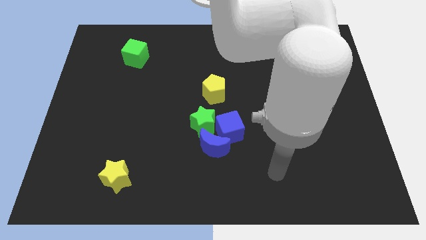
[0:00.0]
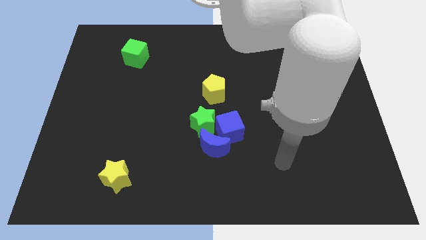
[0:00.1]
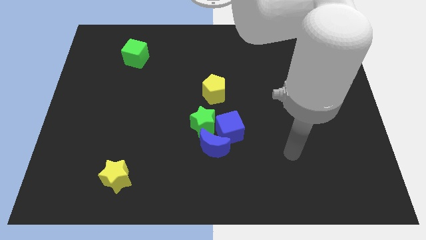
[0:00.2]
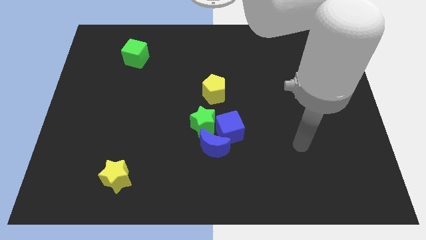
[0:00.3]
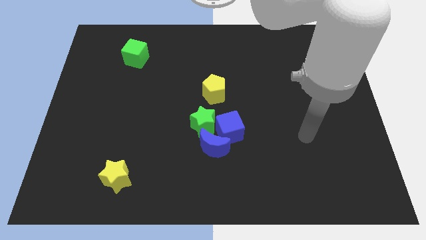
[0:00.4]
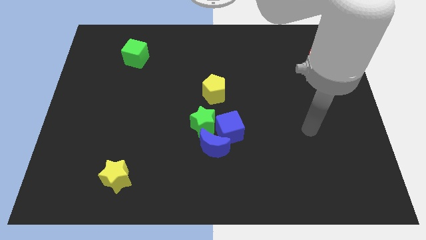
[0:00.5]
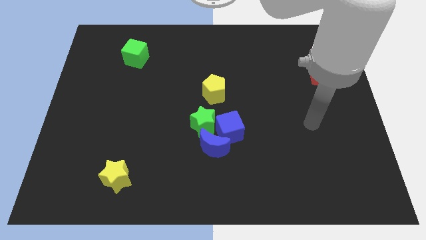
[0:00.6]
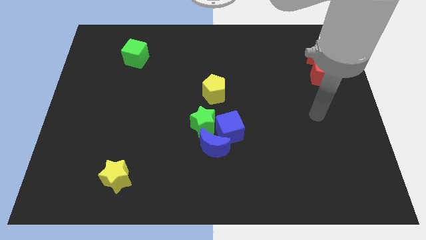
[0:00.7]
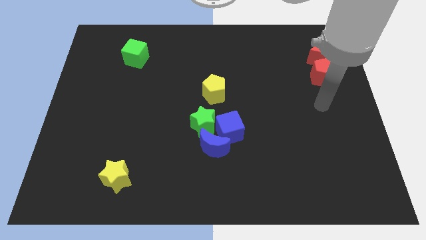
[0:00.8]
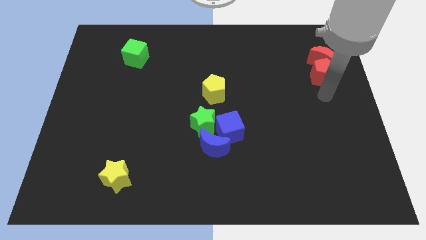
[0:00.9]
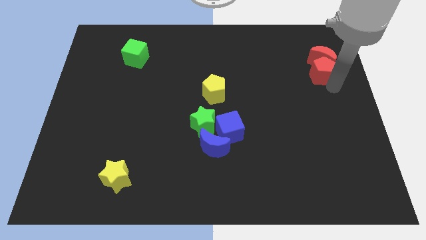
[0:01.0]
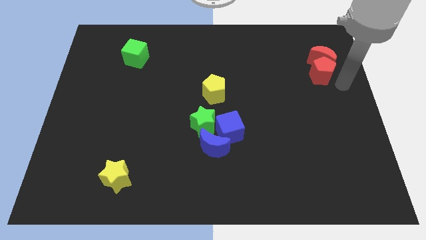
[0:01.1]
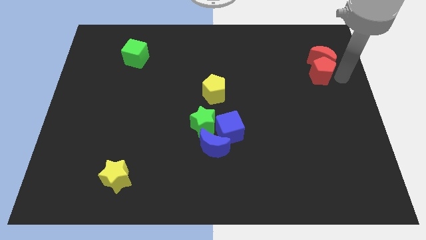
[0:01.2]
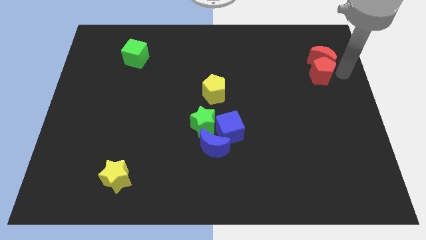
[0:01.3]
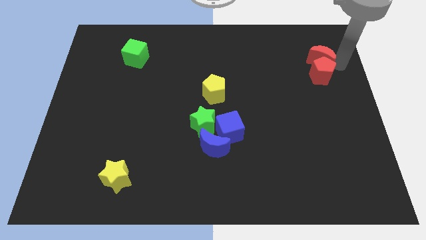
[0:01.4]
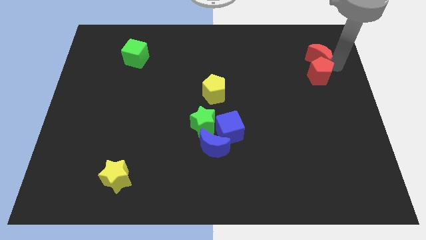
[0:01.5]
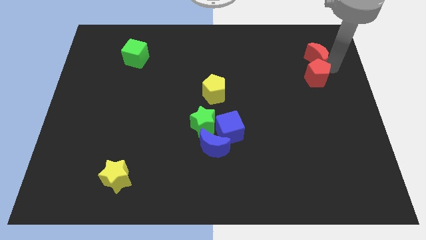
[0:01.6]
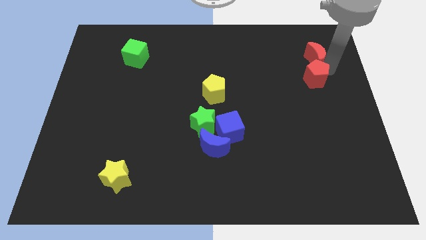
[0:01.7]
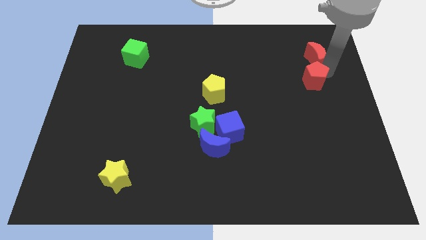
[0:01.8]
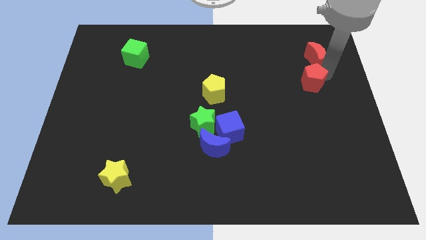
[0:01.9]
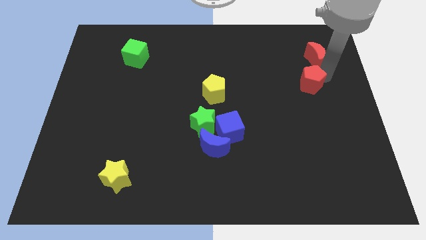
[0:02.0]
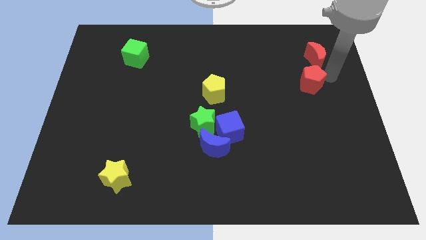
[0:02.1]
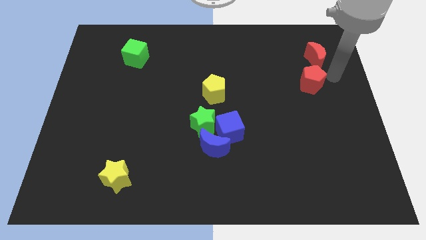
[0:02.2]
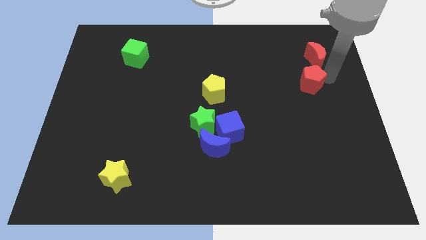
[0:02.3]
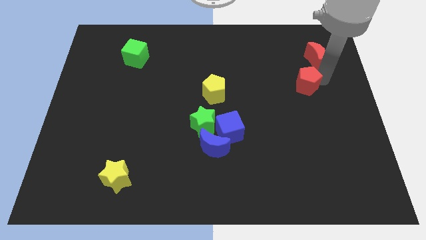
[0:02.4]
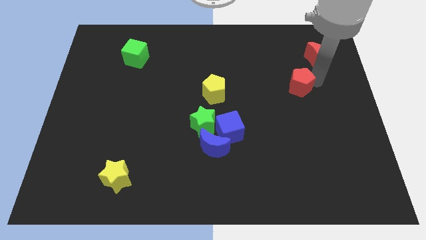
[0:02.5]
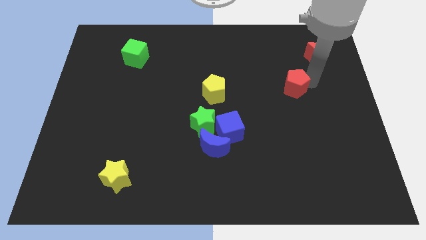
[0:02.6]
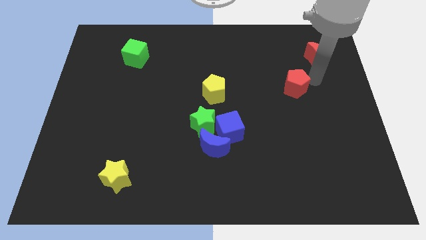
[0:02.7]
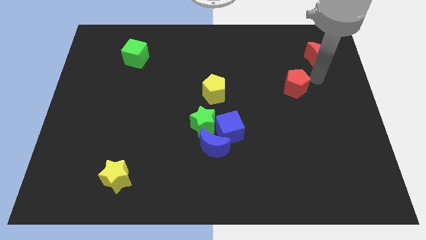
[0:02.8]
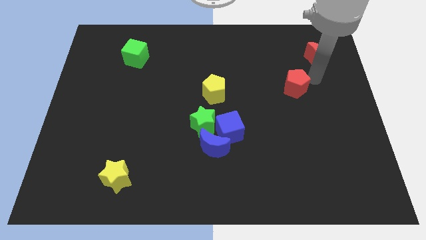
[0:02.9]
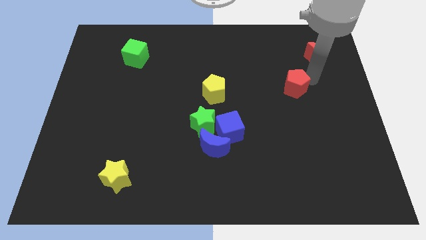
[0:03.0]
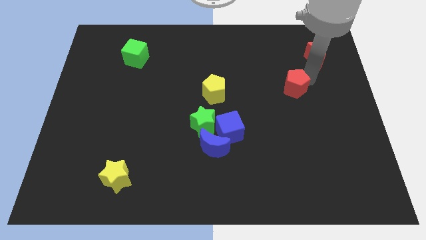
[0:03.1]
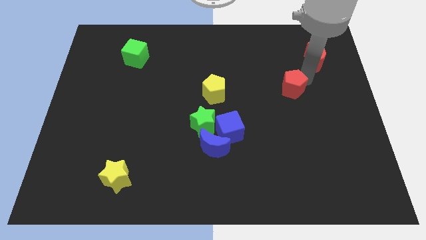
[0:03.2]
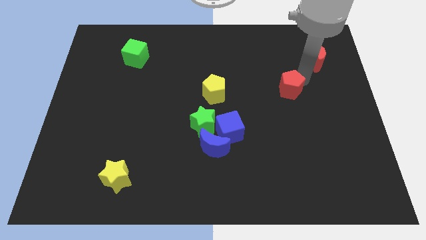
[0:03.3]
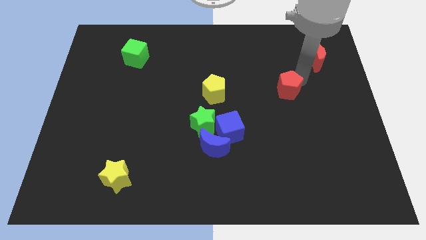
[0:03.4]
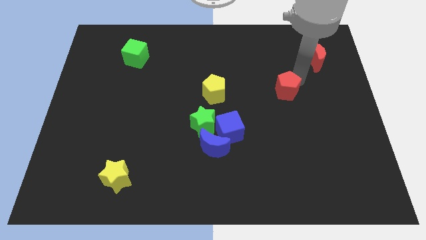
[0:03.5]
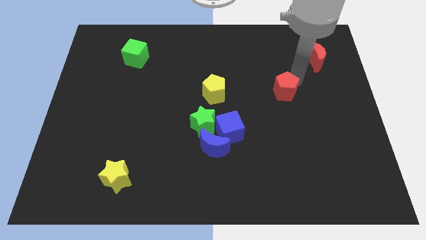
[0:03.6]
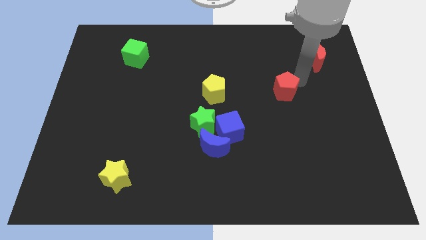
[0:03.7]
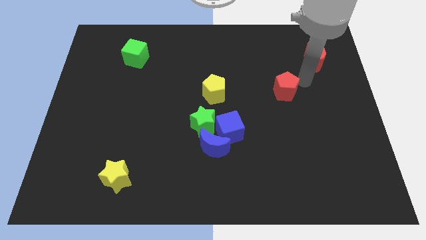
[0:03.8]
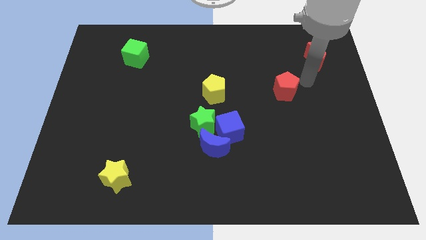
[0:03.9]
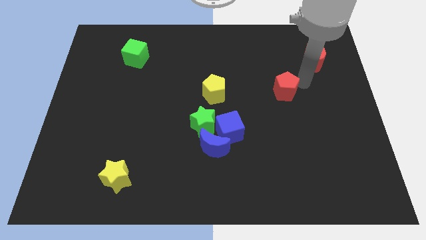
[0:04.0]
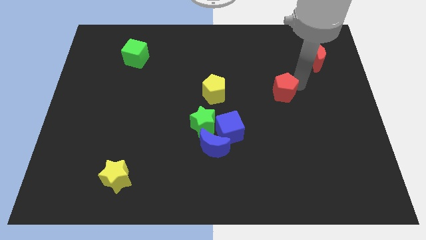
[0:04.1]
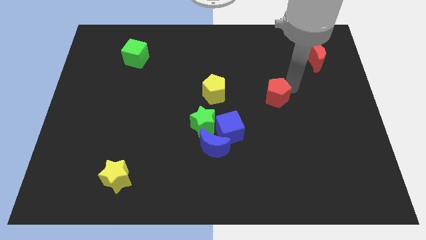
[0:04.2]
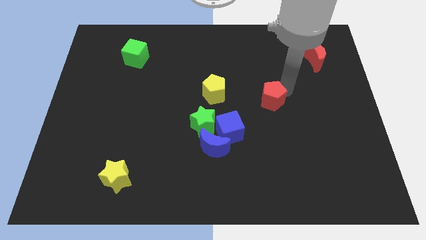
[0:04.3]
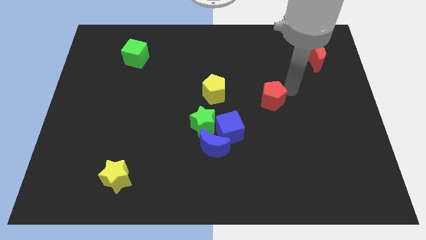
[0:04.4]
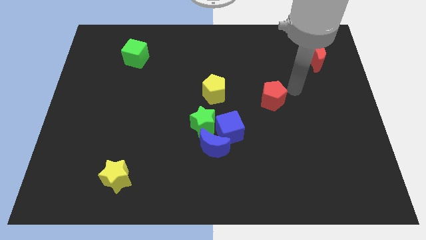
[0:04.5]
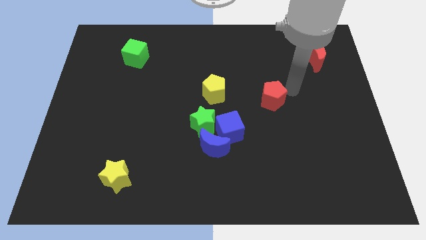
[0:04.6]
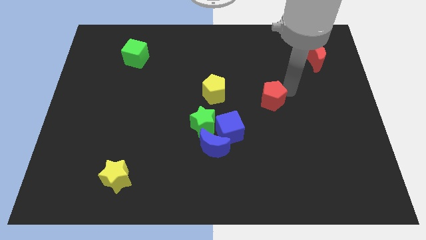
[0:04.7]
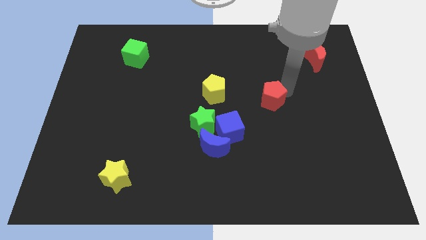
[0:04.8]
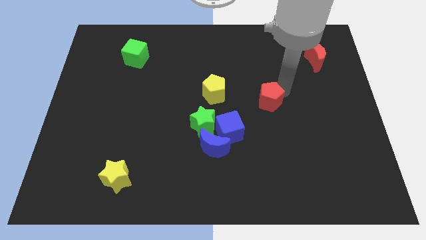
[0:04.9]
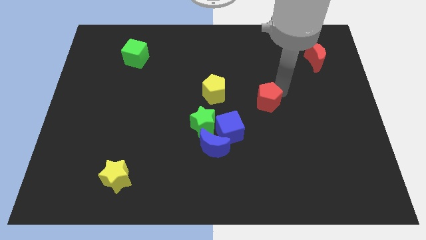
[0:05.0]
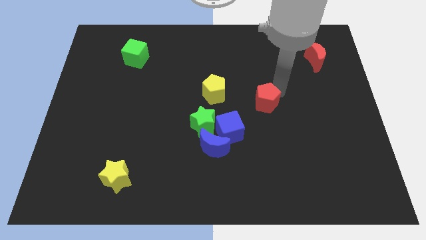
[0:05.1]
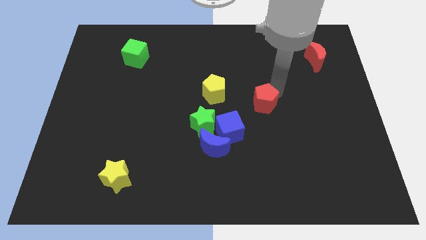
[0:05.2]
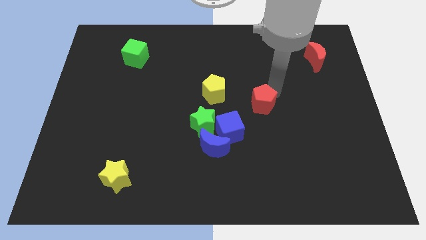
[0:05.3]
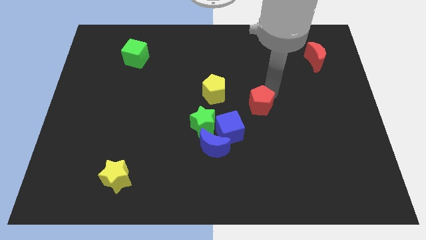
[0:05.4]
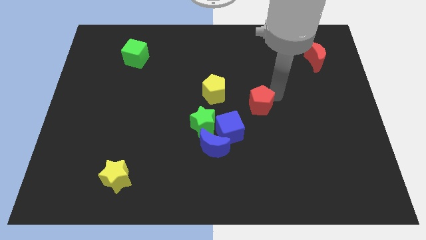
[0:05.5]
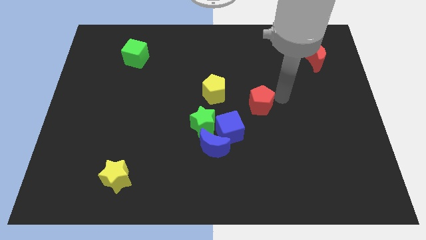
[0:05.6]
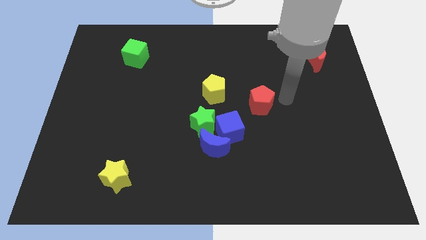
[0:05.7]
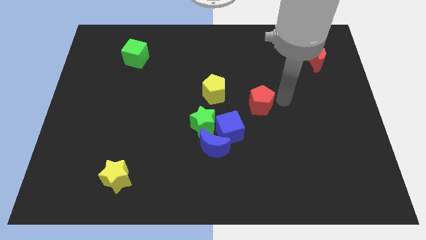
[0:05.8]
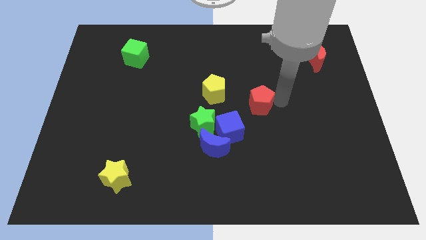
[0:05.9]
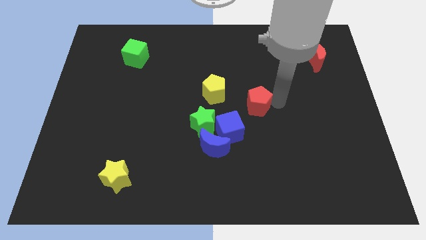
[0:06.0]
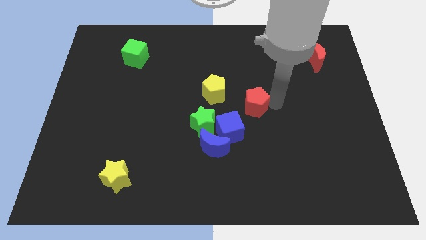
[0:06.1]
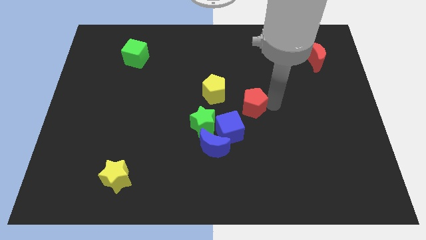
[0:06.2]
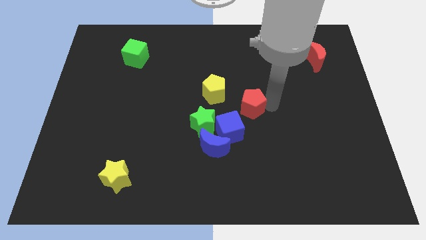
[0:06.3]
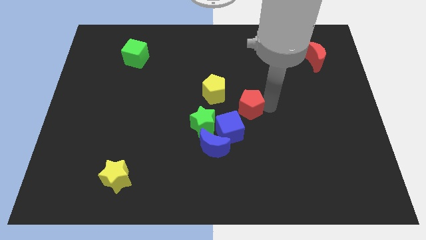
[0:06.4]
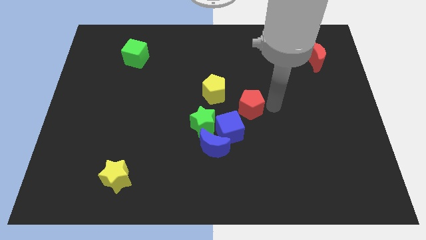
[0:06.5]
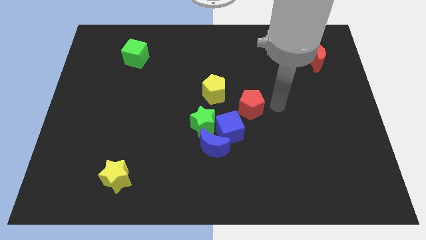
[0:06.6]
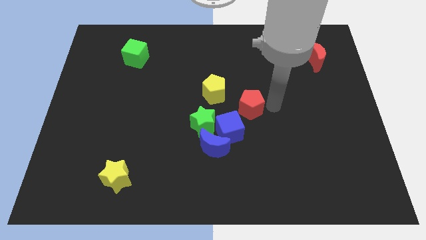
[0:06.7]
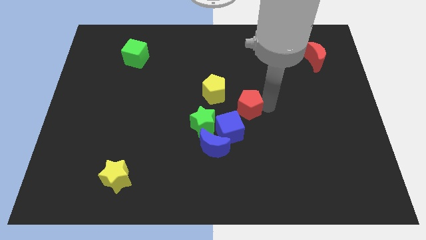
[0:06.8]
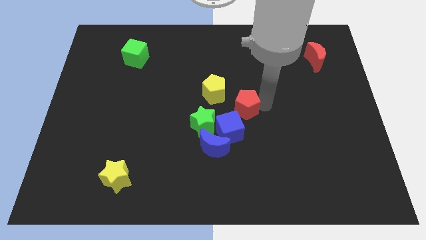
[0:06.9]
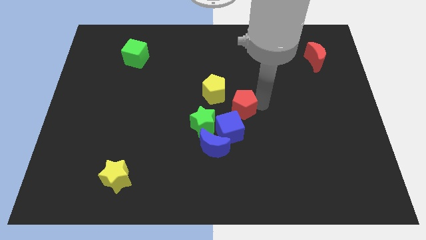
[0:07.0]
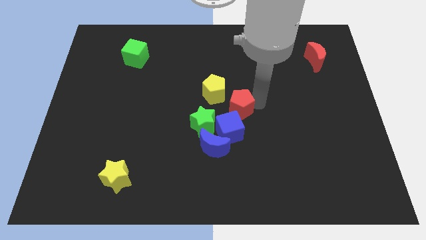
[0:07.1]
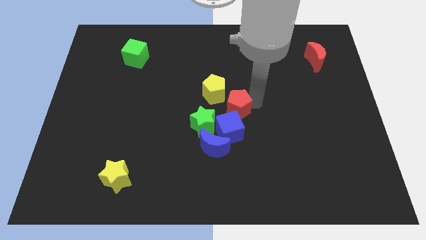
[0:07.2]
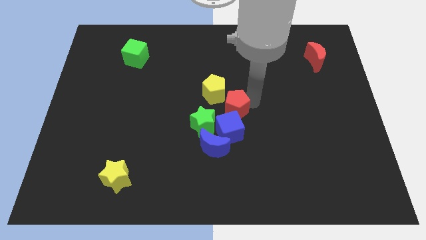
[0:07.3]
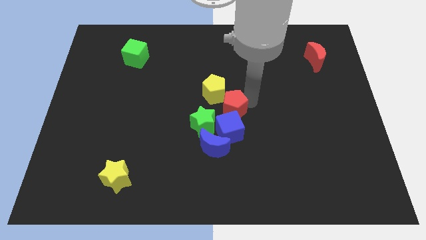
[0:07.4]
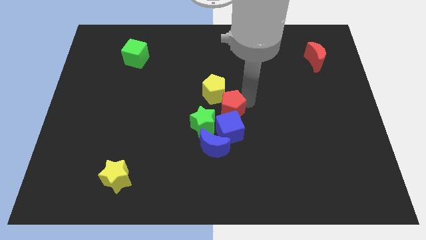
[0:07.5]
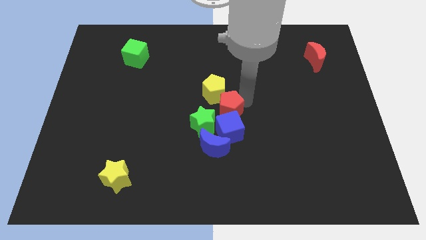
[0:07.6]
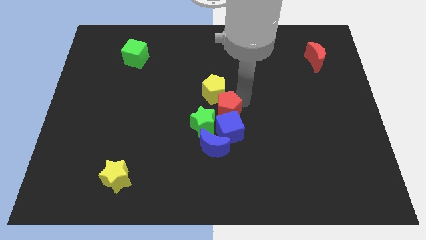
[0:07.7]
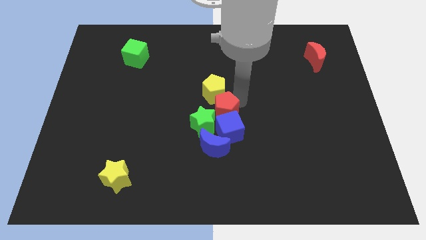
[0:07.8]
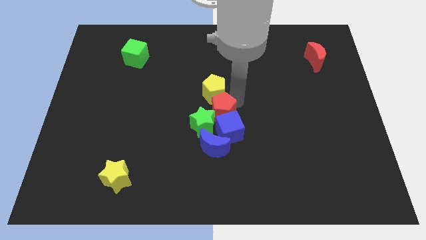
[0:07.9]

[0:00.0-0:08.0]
put the red pentagon close to the green star
